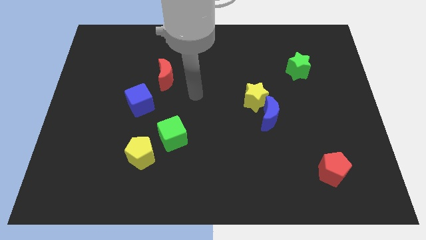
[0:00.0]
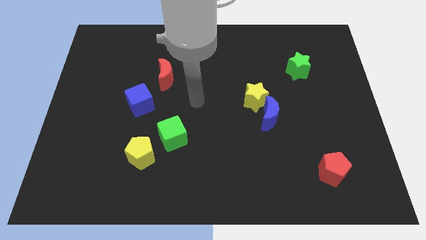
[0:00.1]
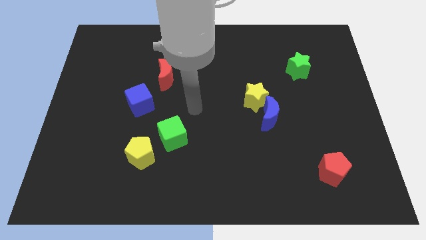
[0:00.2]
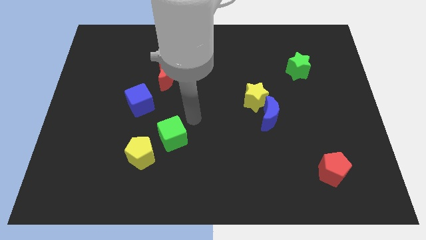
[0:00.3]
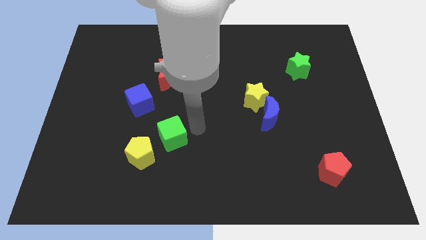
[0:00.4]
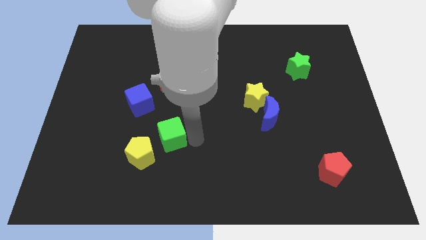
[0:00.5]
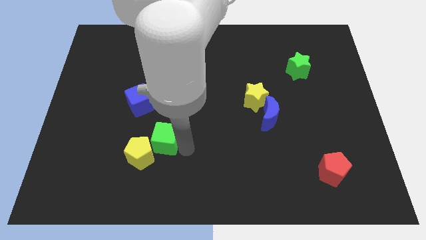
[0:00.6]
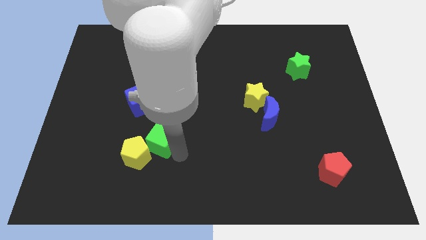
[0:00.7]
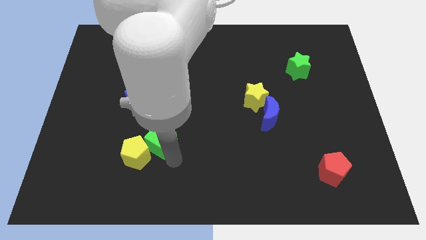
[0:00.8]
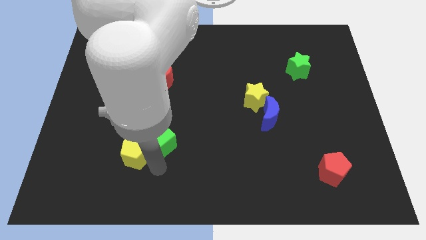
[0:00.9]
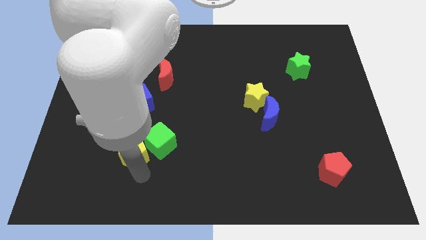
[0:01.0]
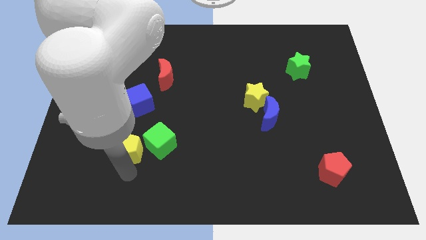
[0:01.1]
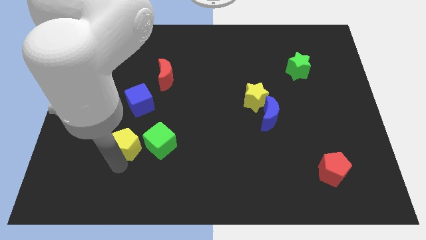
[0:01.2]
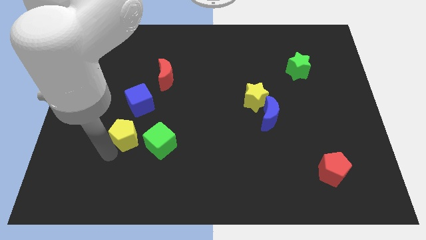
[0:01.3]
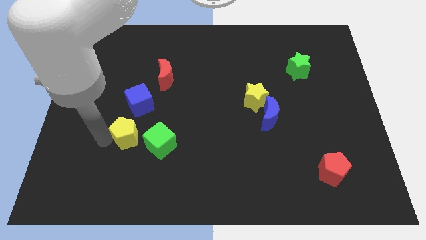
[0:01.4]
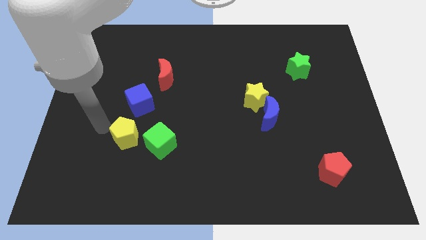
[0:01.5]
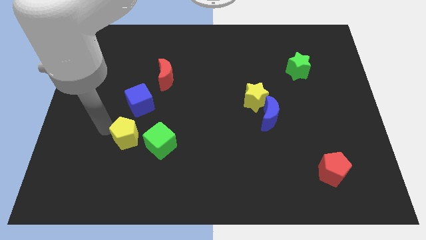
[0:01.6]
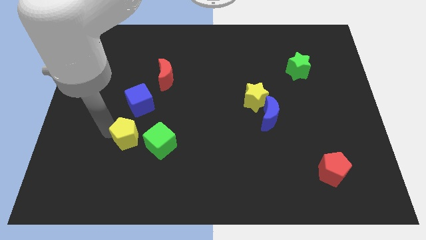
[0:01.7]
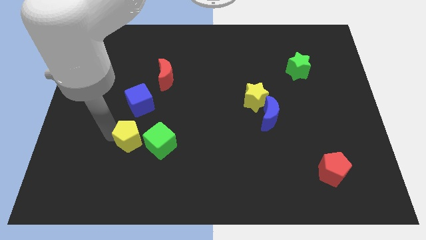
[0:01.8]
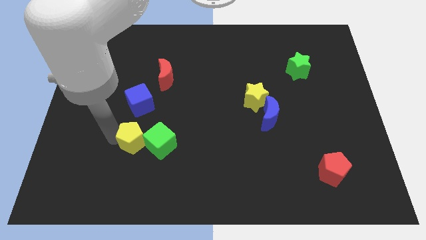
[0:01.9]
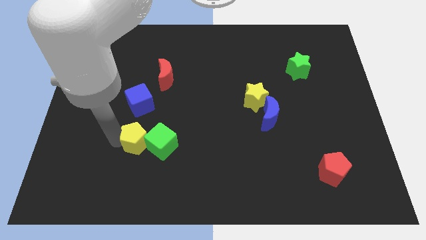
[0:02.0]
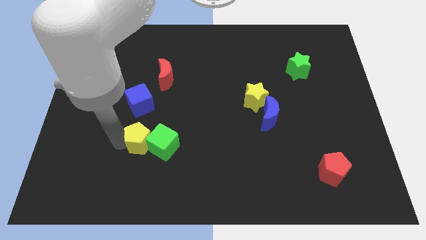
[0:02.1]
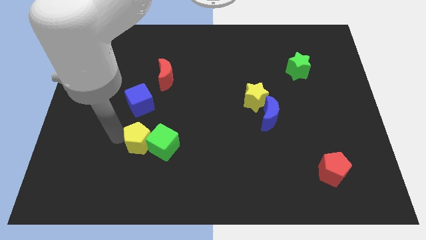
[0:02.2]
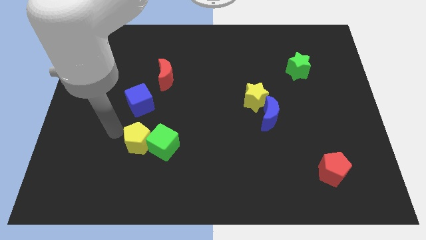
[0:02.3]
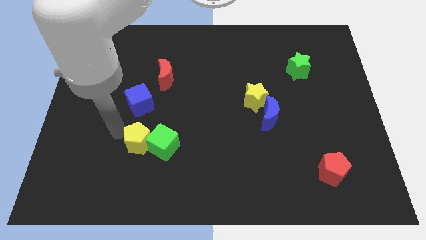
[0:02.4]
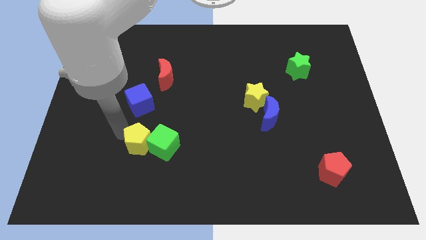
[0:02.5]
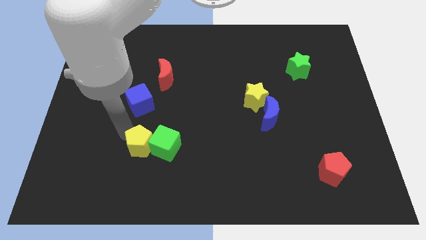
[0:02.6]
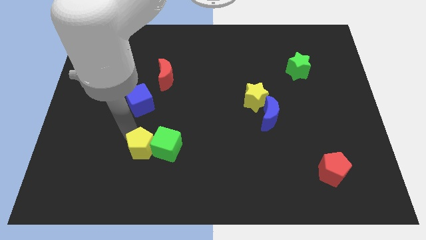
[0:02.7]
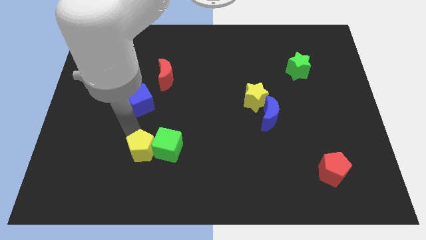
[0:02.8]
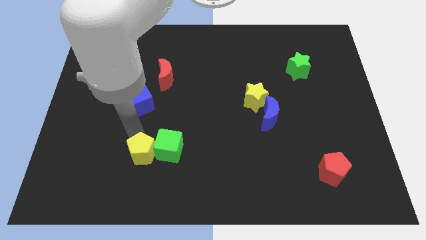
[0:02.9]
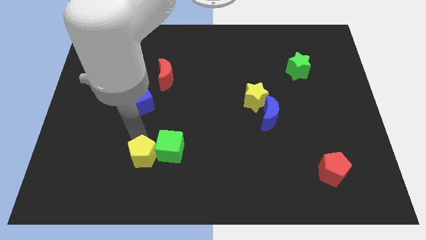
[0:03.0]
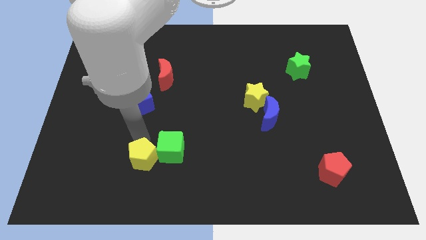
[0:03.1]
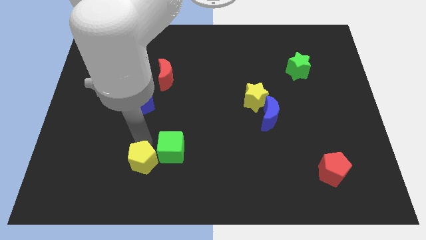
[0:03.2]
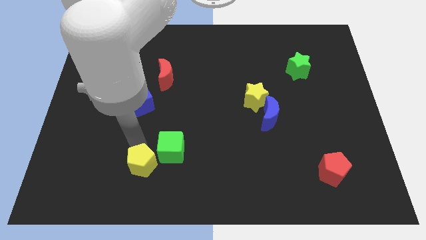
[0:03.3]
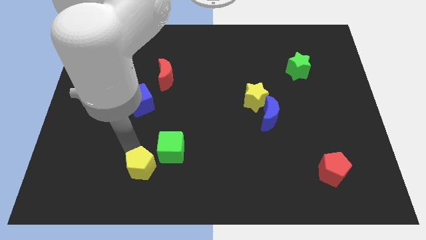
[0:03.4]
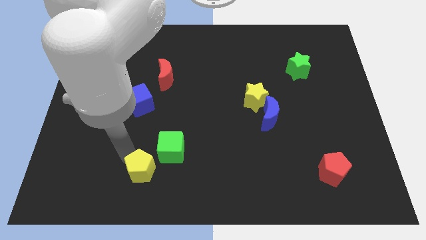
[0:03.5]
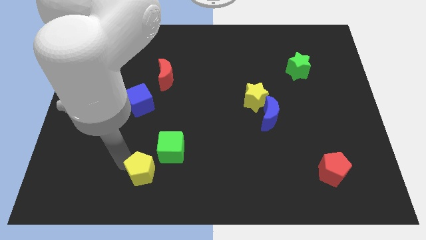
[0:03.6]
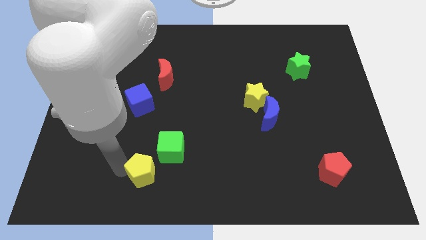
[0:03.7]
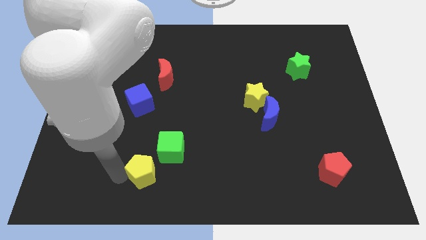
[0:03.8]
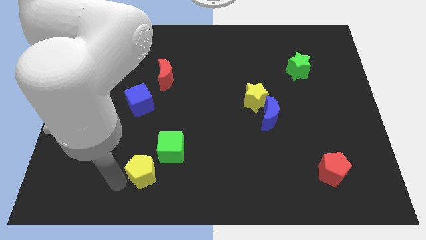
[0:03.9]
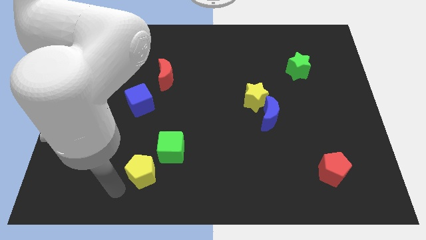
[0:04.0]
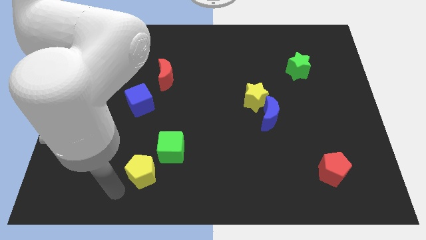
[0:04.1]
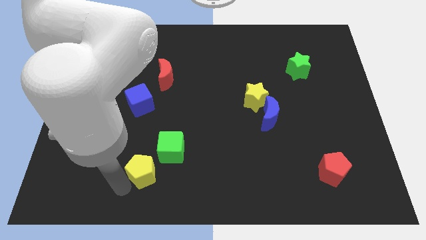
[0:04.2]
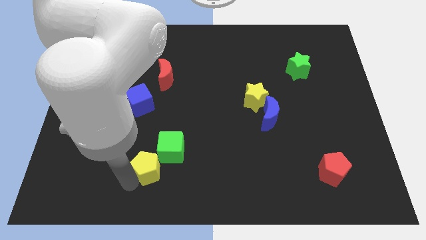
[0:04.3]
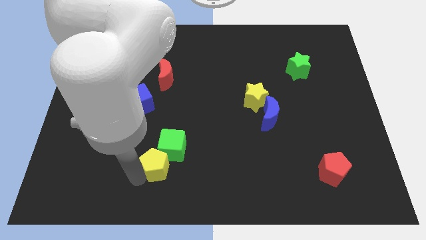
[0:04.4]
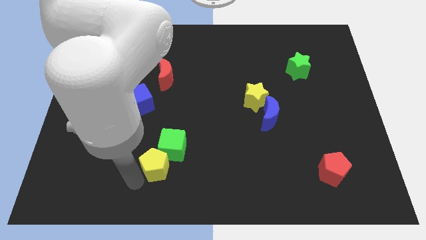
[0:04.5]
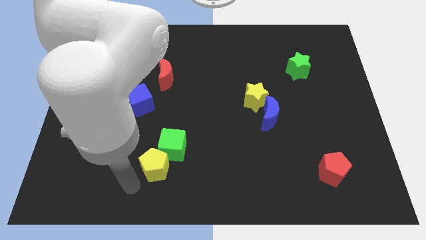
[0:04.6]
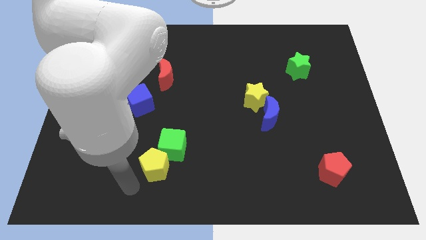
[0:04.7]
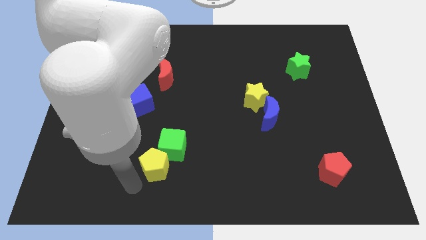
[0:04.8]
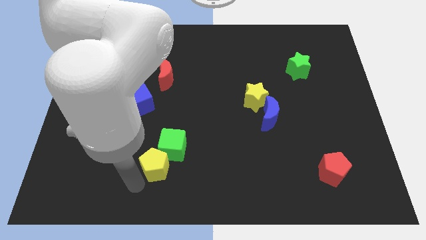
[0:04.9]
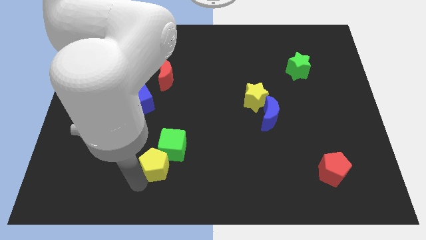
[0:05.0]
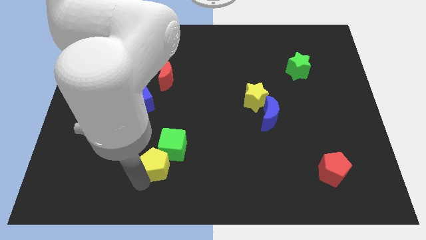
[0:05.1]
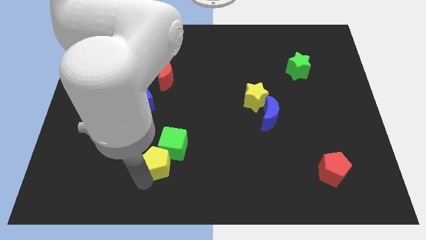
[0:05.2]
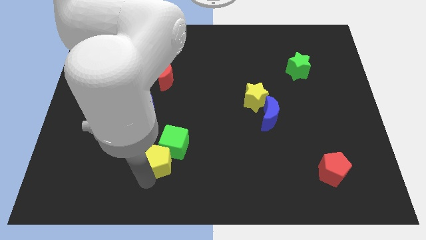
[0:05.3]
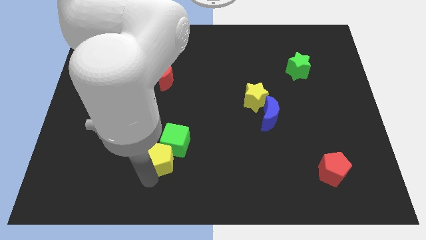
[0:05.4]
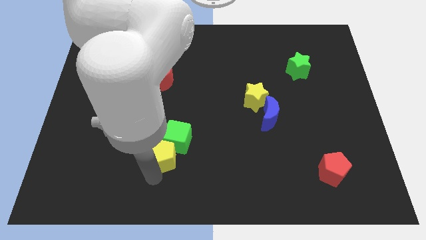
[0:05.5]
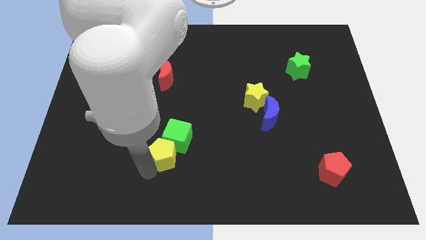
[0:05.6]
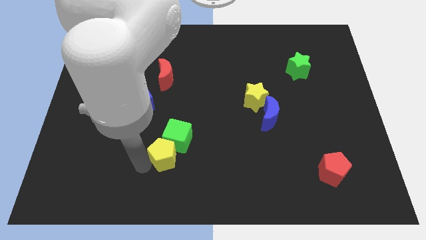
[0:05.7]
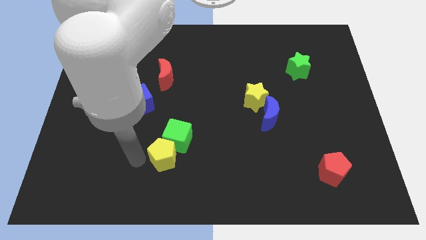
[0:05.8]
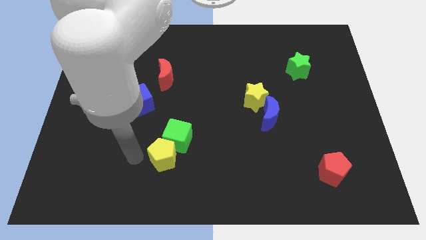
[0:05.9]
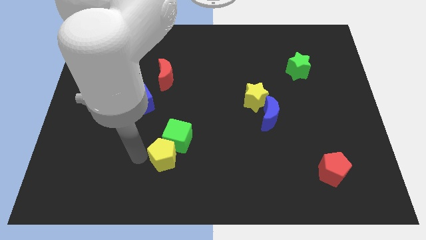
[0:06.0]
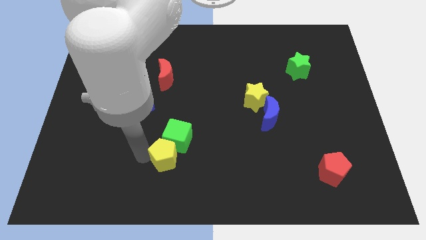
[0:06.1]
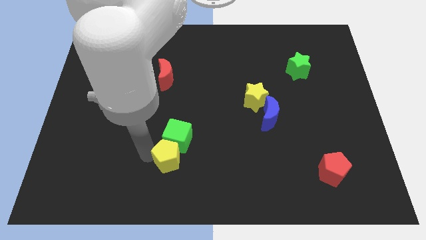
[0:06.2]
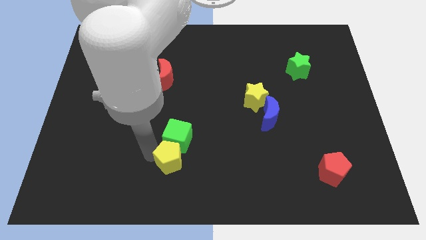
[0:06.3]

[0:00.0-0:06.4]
slide the yellow pentagon diagonally down and to the right of the green cube

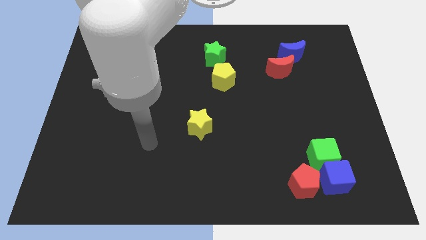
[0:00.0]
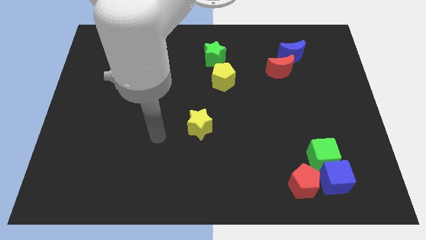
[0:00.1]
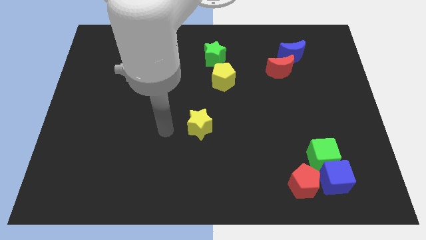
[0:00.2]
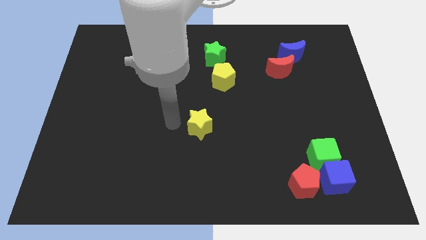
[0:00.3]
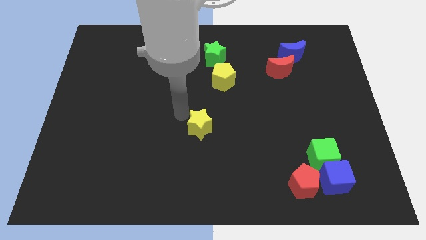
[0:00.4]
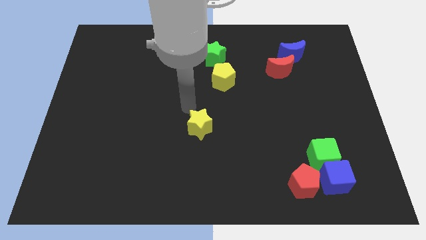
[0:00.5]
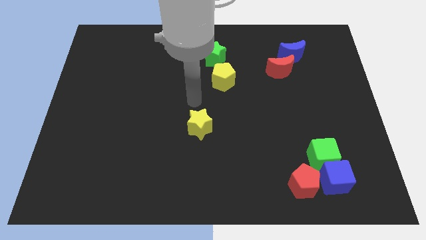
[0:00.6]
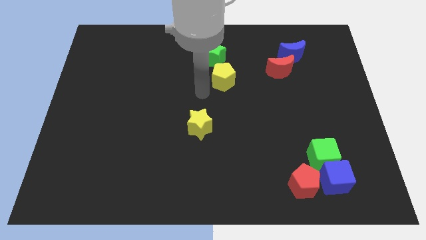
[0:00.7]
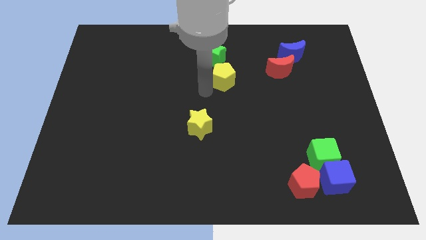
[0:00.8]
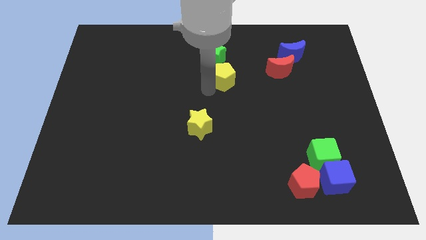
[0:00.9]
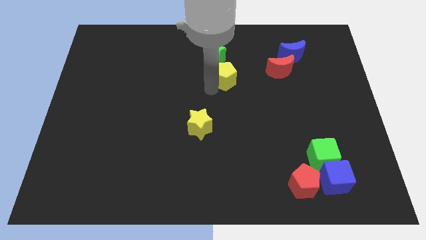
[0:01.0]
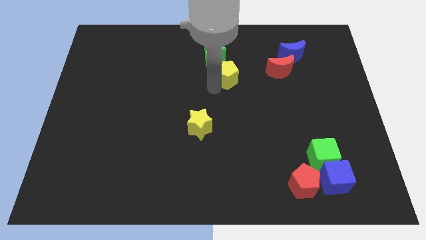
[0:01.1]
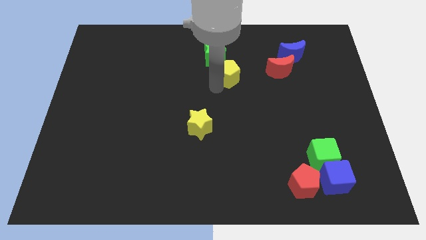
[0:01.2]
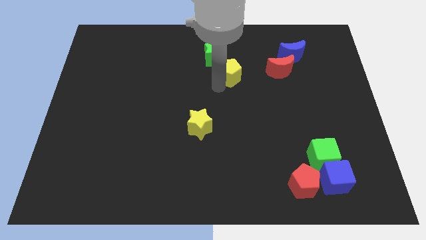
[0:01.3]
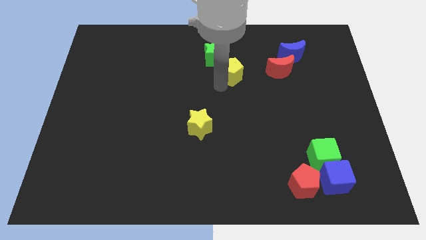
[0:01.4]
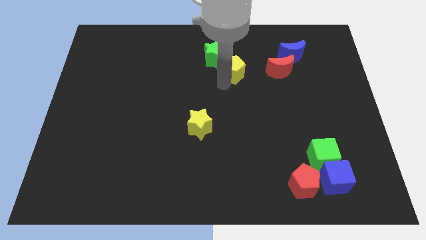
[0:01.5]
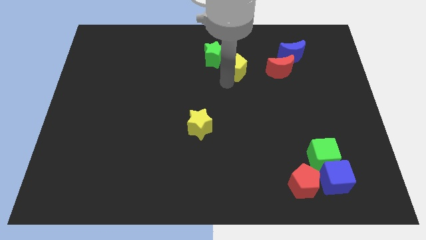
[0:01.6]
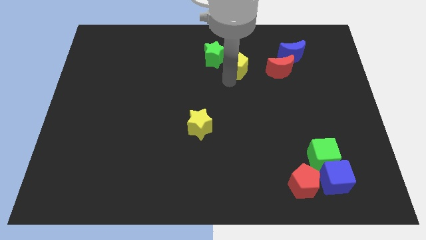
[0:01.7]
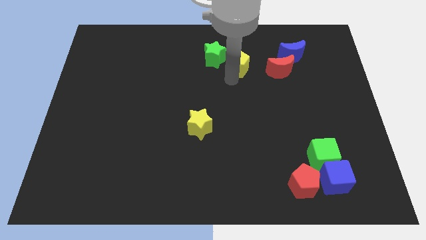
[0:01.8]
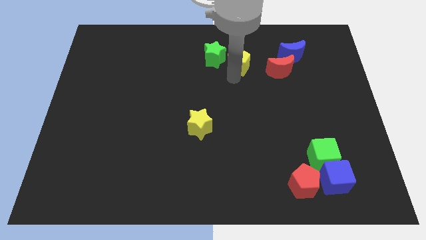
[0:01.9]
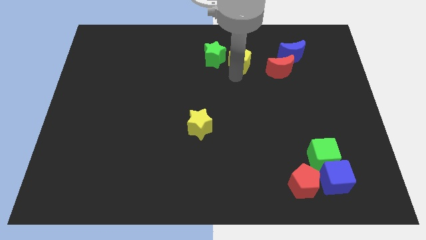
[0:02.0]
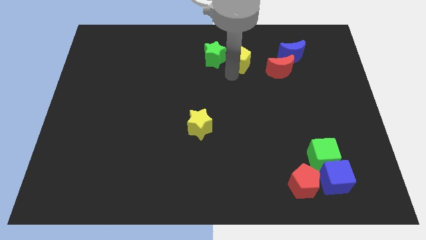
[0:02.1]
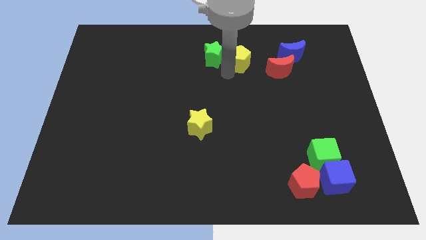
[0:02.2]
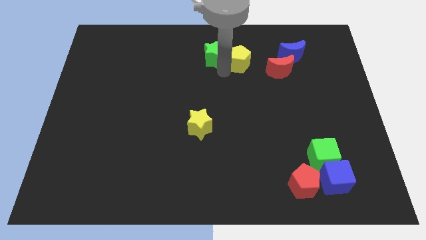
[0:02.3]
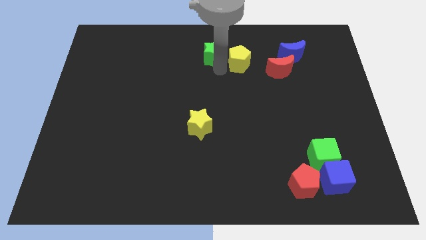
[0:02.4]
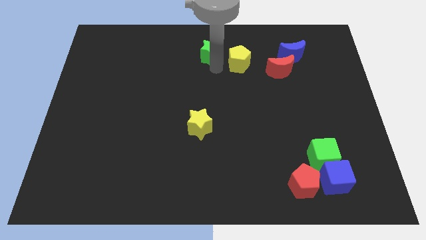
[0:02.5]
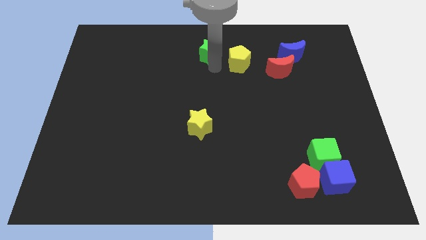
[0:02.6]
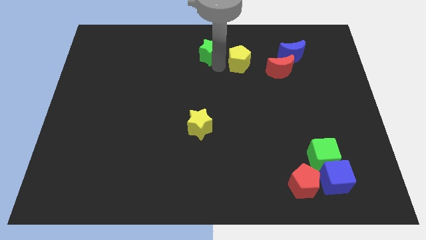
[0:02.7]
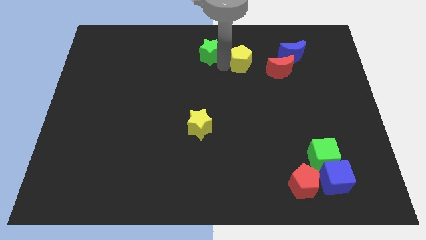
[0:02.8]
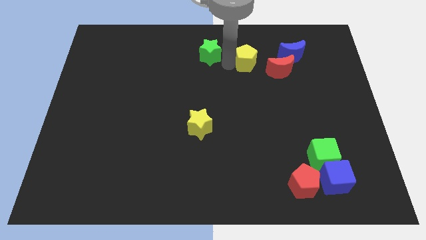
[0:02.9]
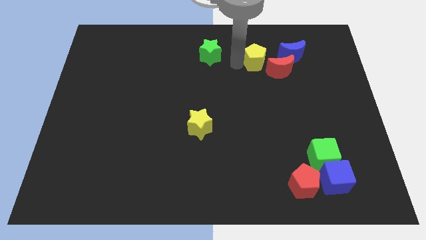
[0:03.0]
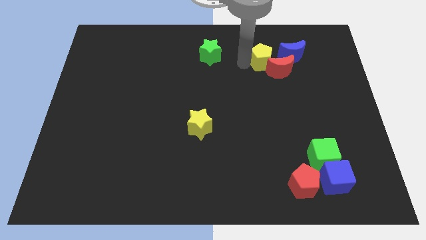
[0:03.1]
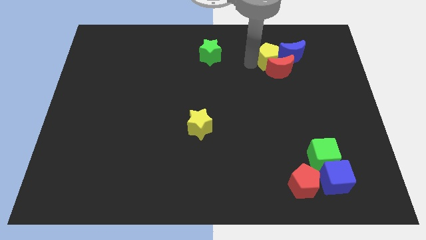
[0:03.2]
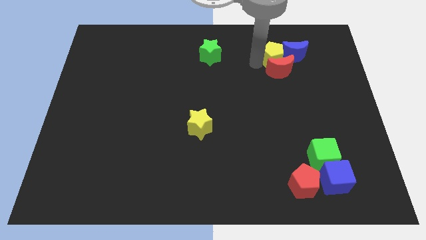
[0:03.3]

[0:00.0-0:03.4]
slide the yellow pentagon to the top right of the red moon
